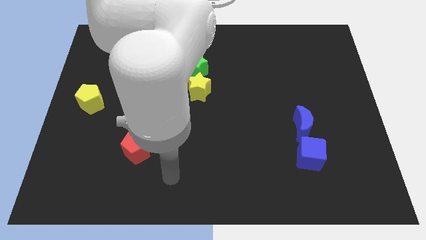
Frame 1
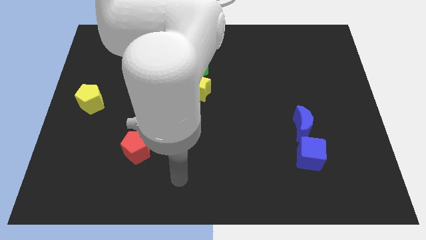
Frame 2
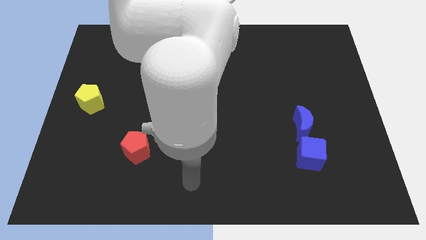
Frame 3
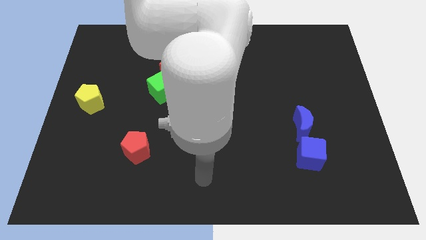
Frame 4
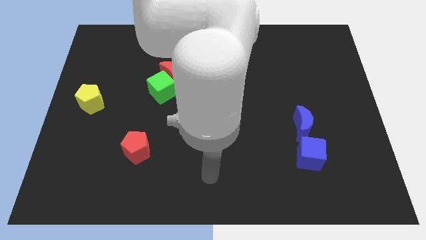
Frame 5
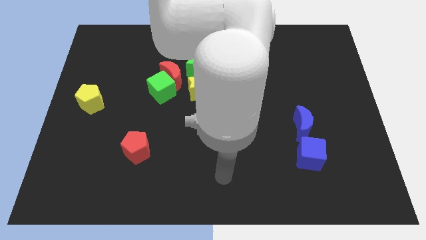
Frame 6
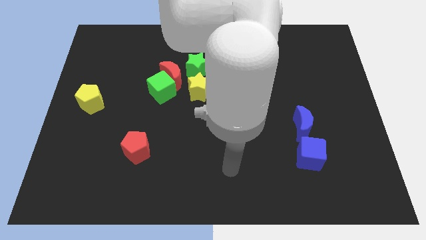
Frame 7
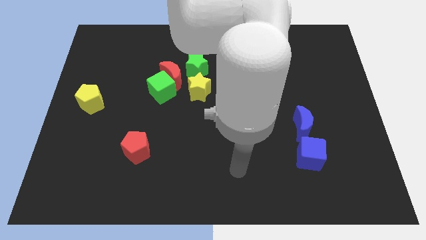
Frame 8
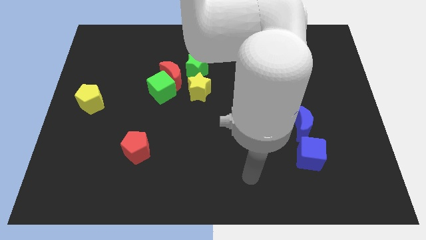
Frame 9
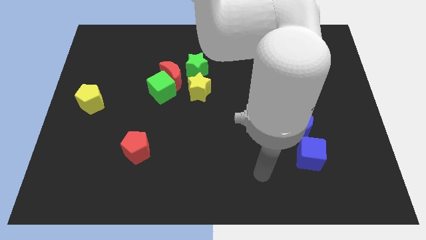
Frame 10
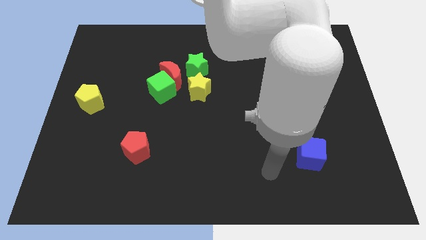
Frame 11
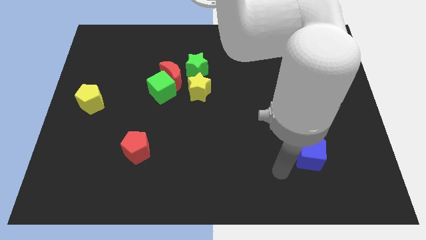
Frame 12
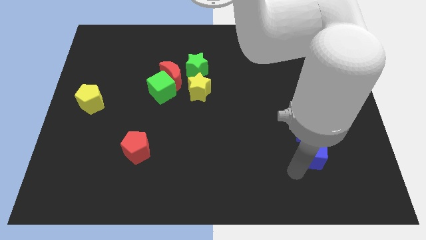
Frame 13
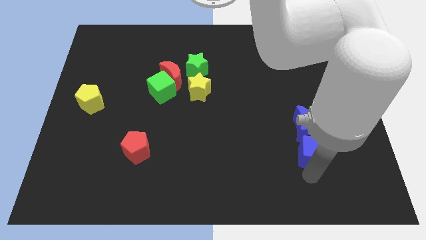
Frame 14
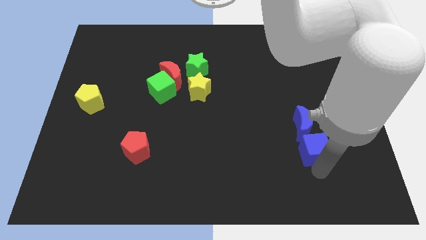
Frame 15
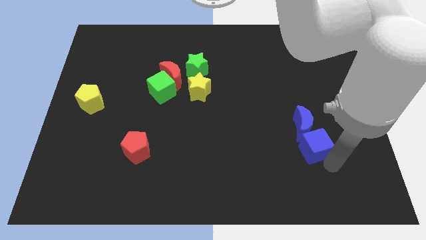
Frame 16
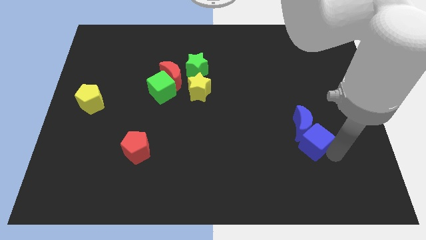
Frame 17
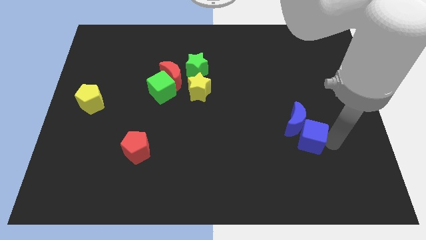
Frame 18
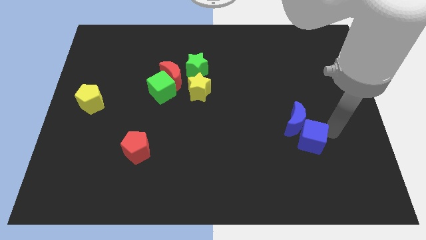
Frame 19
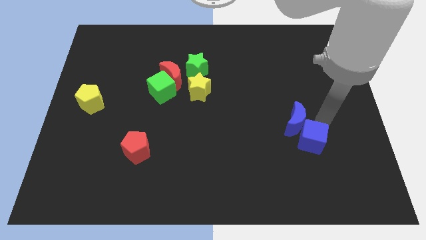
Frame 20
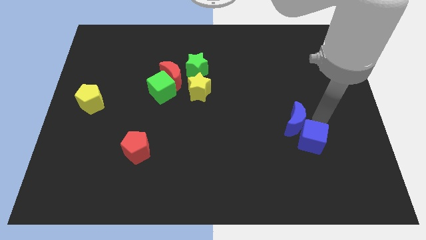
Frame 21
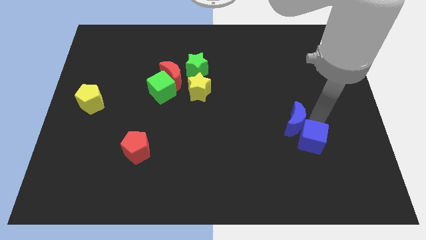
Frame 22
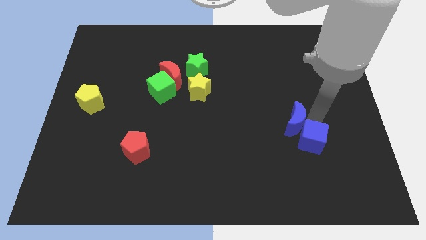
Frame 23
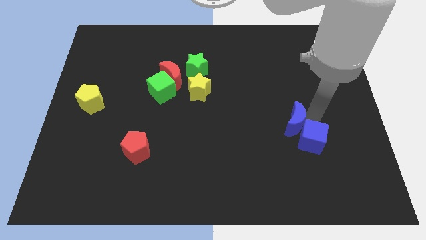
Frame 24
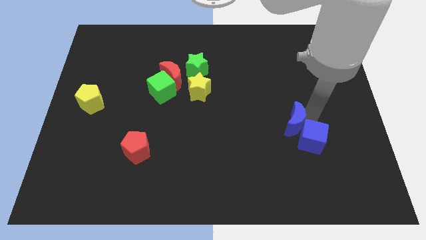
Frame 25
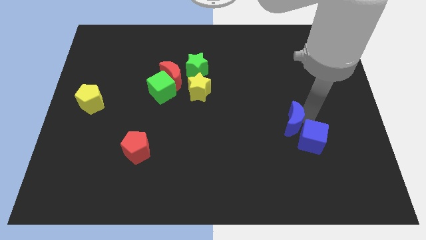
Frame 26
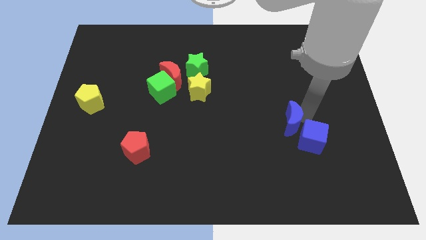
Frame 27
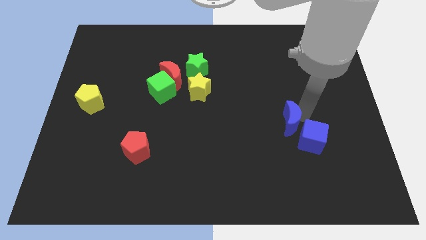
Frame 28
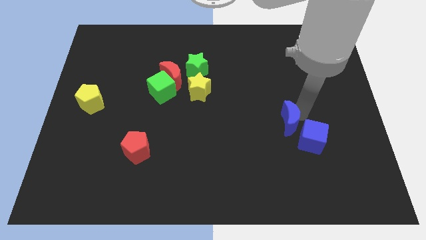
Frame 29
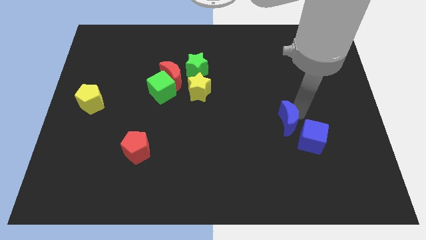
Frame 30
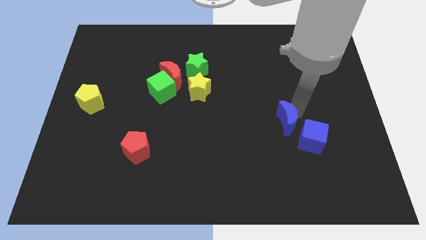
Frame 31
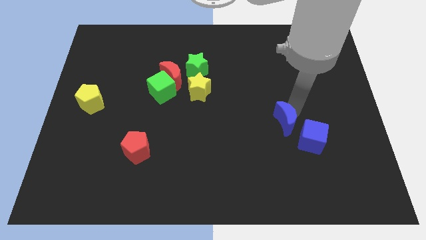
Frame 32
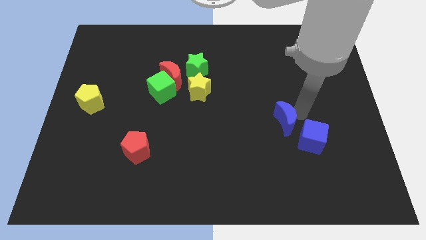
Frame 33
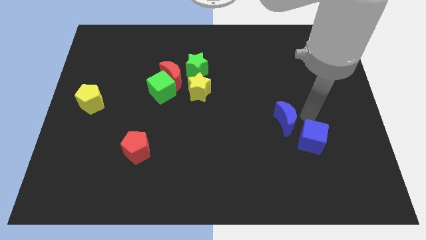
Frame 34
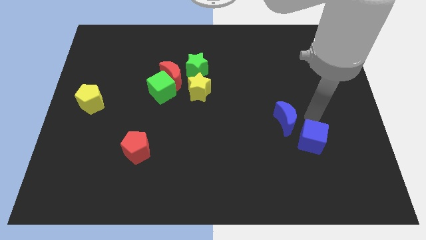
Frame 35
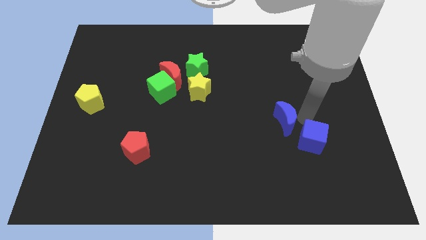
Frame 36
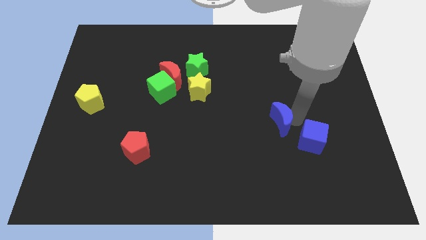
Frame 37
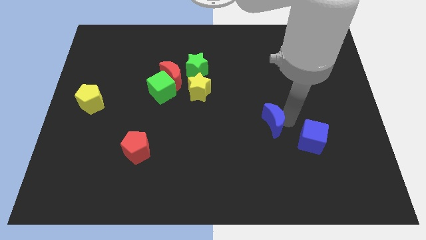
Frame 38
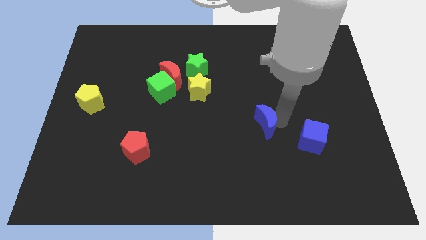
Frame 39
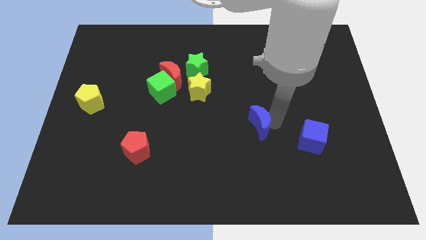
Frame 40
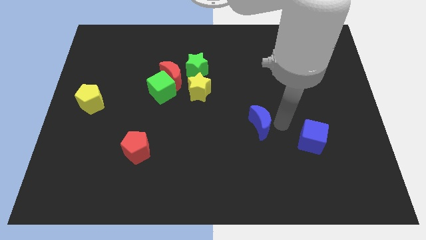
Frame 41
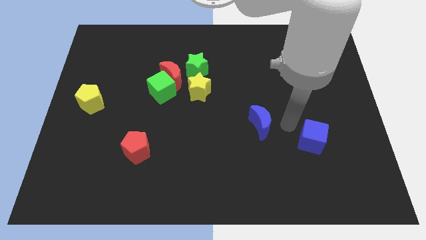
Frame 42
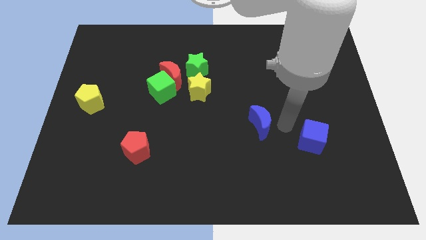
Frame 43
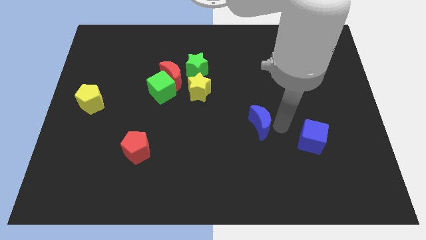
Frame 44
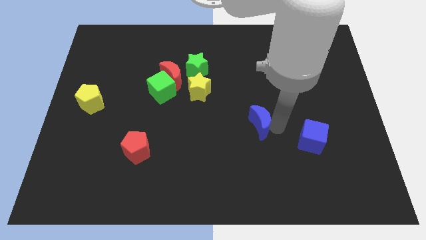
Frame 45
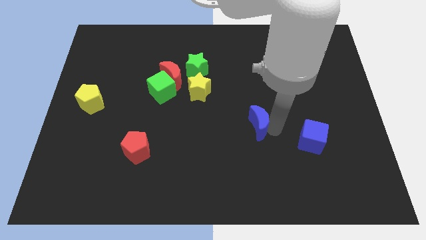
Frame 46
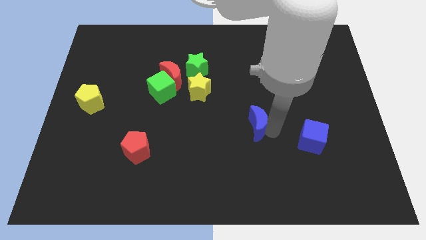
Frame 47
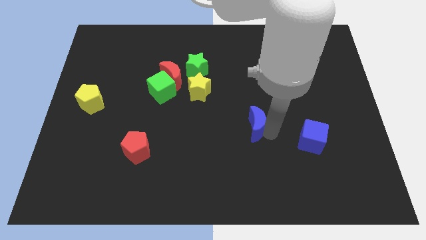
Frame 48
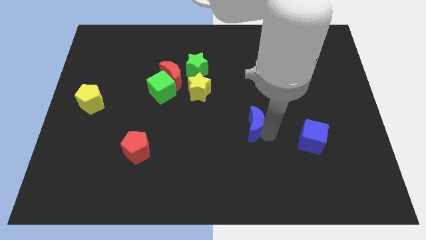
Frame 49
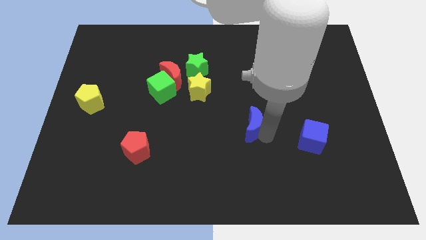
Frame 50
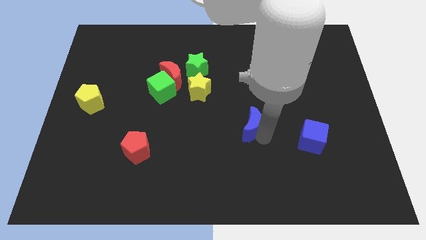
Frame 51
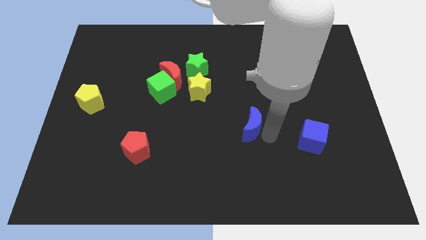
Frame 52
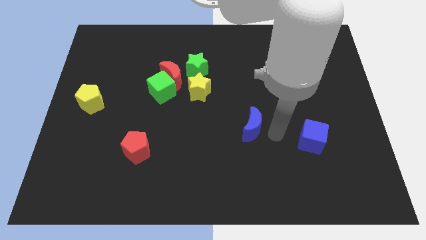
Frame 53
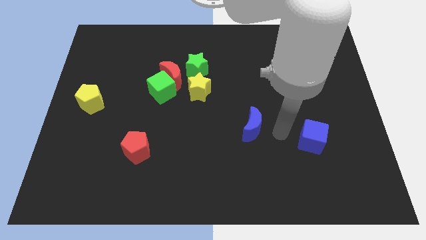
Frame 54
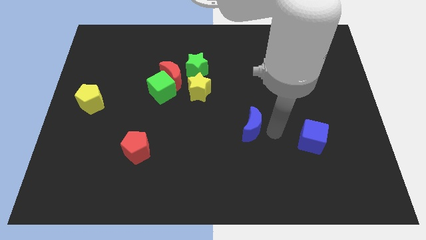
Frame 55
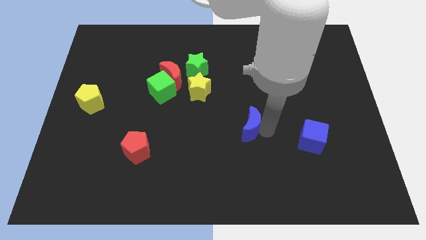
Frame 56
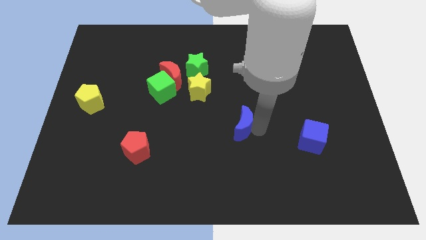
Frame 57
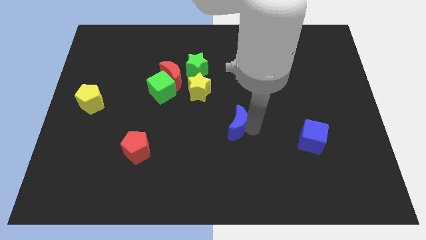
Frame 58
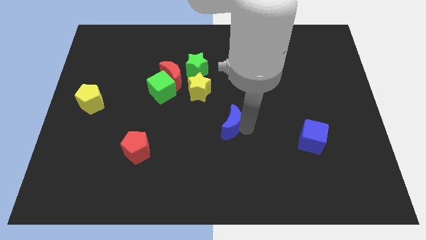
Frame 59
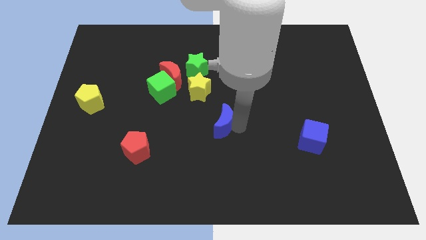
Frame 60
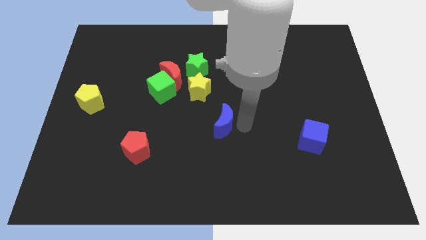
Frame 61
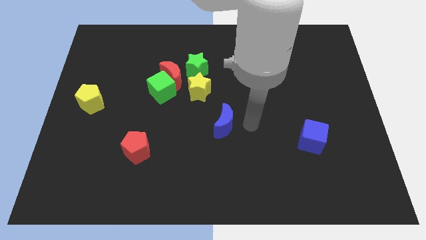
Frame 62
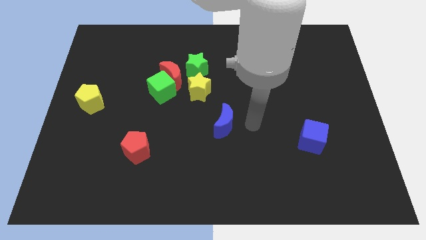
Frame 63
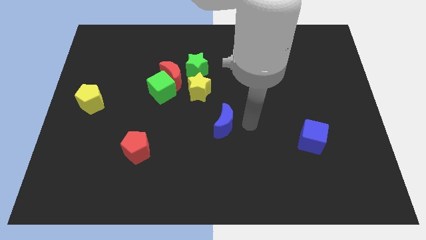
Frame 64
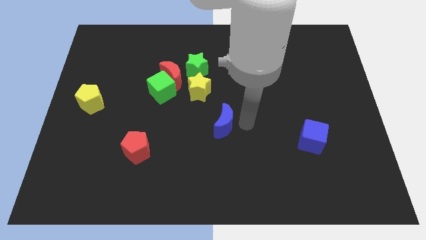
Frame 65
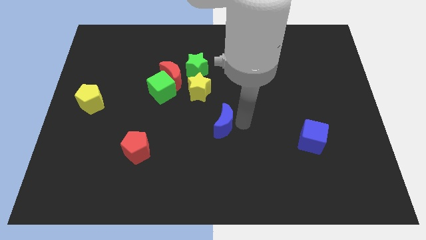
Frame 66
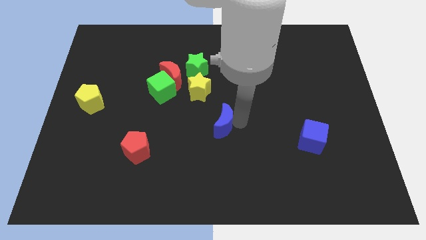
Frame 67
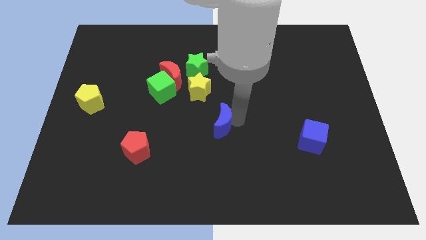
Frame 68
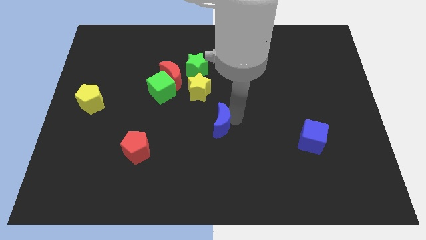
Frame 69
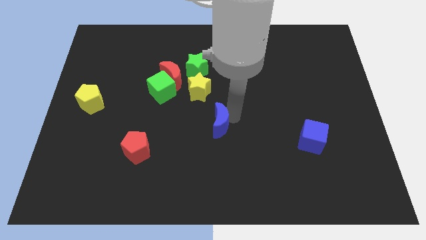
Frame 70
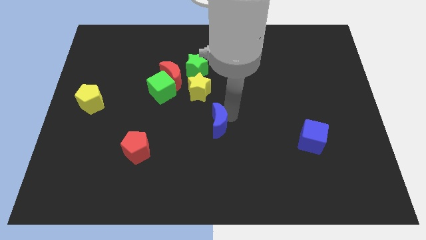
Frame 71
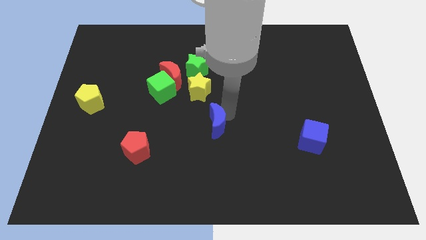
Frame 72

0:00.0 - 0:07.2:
move the blue moon to the bottom side of the yellow star
